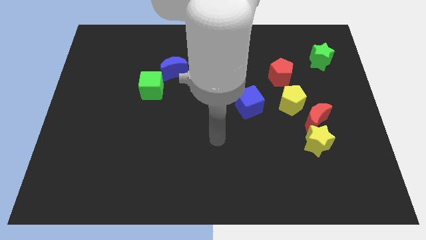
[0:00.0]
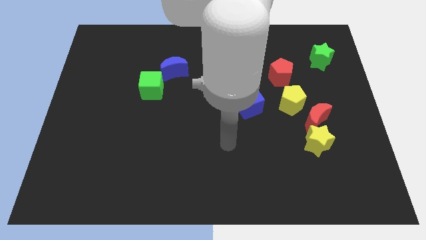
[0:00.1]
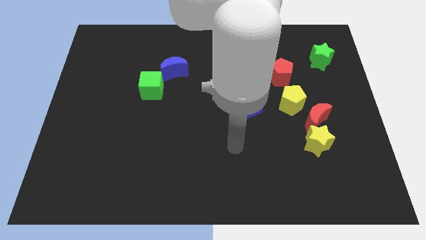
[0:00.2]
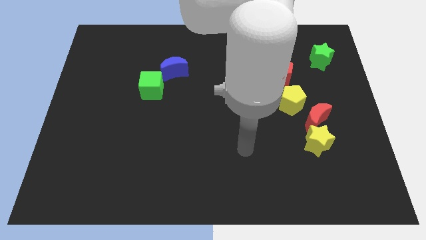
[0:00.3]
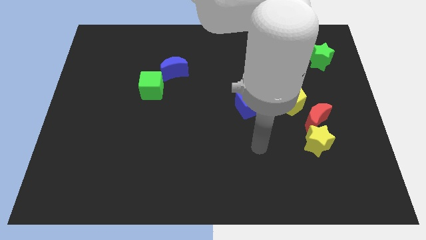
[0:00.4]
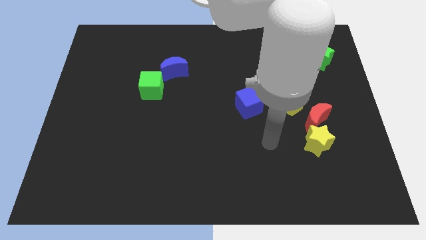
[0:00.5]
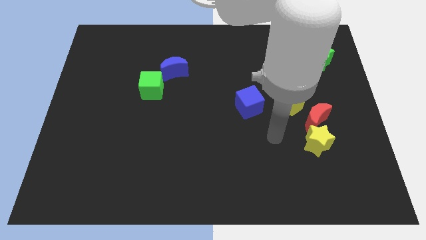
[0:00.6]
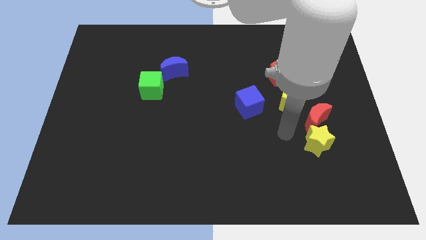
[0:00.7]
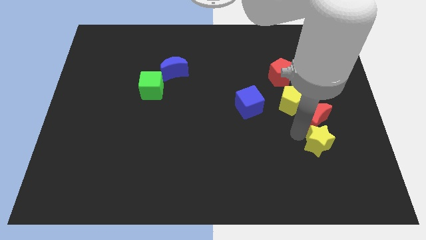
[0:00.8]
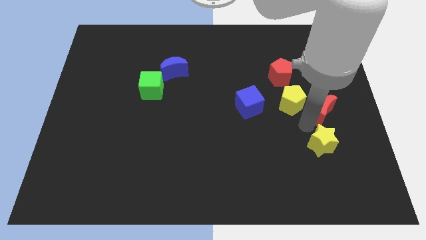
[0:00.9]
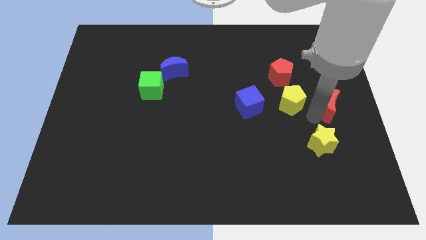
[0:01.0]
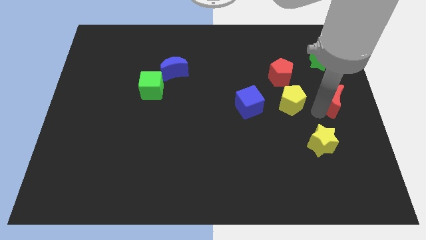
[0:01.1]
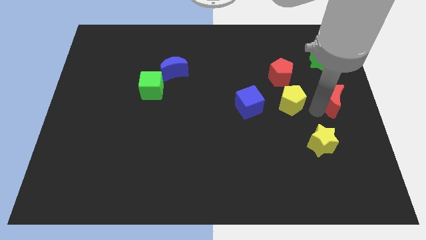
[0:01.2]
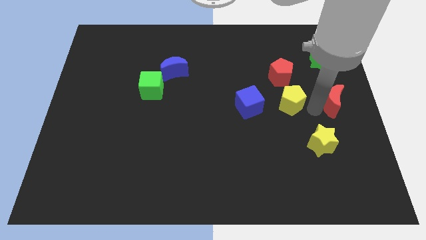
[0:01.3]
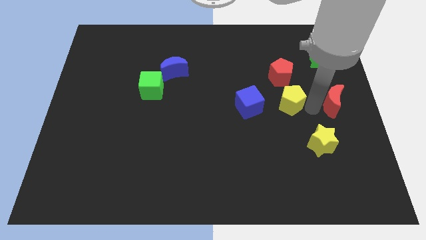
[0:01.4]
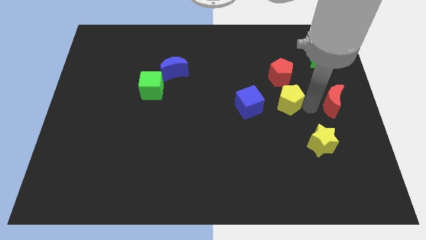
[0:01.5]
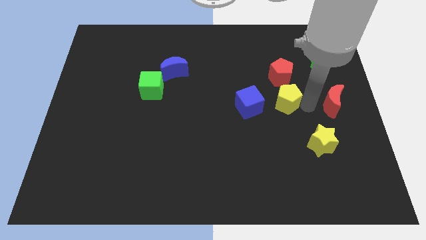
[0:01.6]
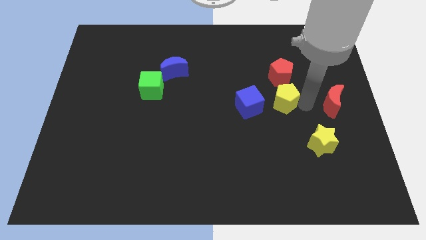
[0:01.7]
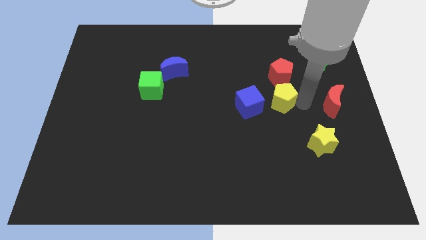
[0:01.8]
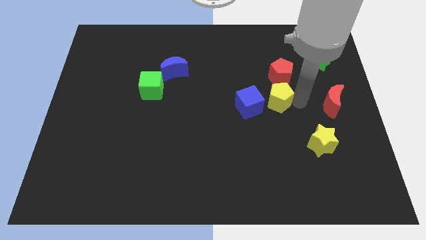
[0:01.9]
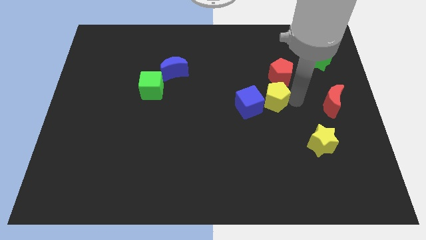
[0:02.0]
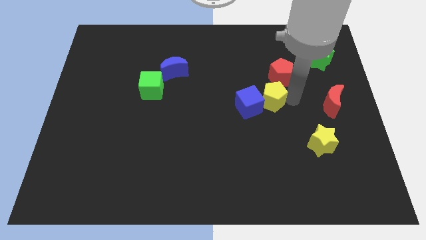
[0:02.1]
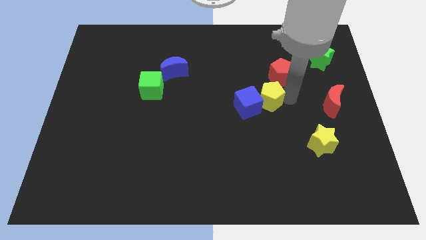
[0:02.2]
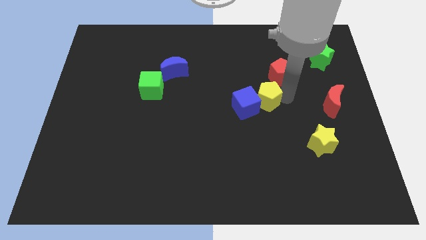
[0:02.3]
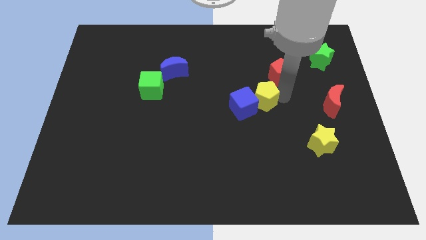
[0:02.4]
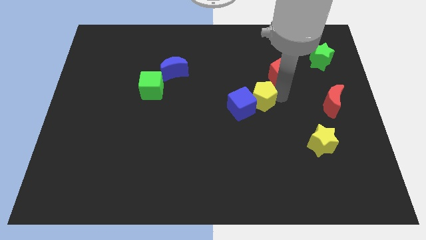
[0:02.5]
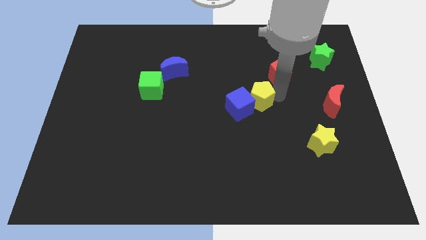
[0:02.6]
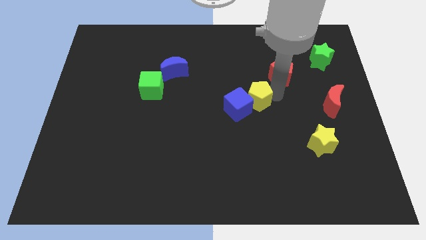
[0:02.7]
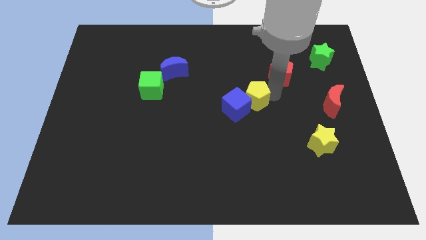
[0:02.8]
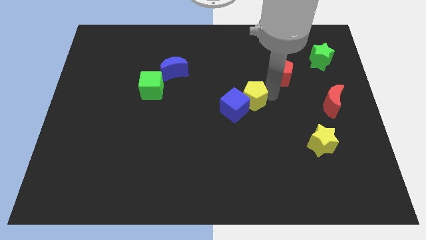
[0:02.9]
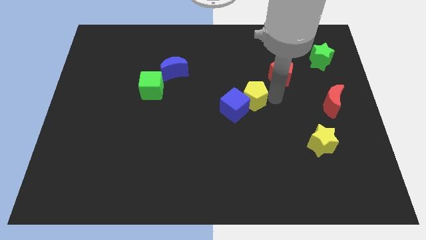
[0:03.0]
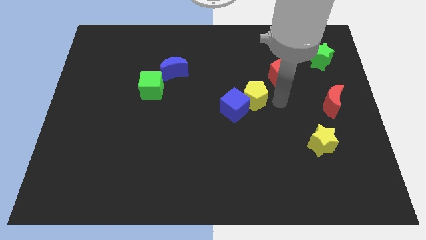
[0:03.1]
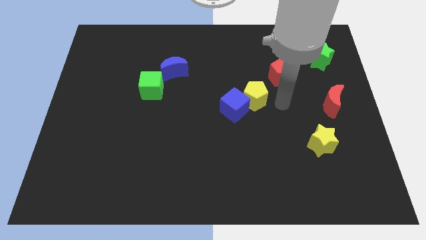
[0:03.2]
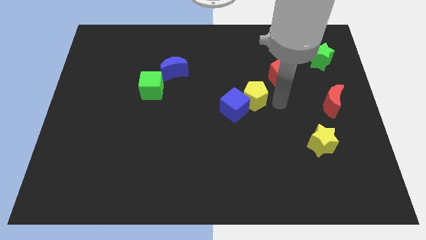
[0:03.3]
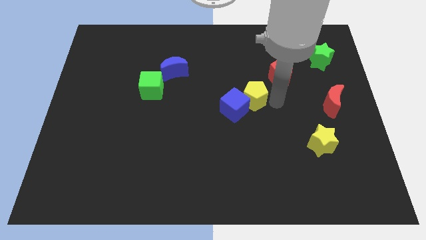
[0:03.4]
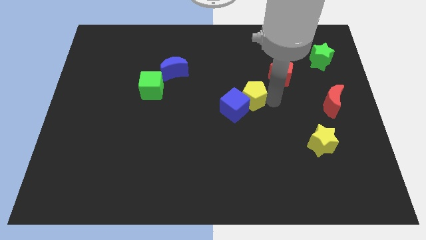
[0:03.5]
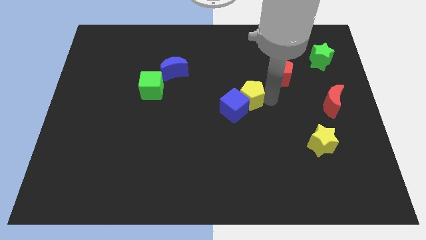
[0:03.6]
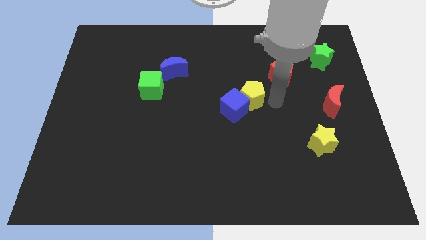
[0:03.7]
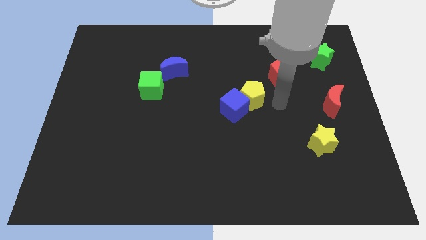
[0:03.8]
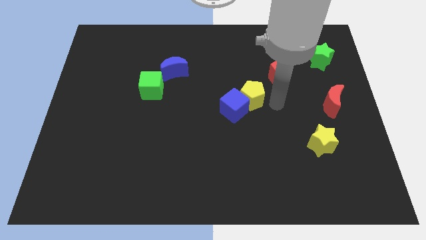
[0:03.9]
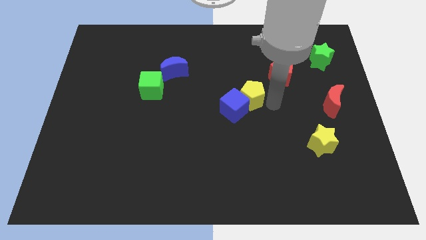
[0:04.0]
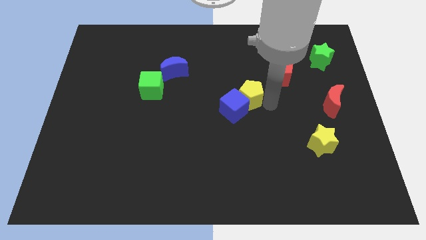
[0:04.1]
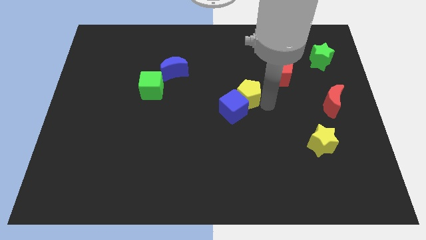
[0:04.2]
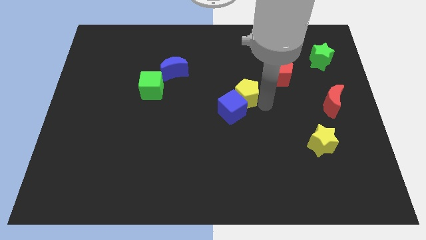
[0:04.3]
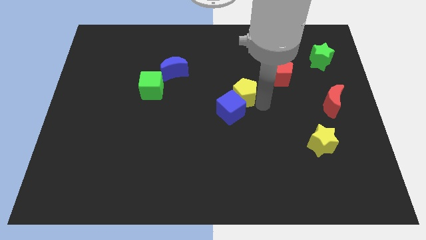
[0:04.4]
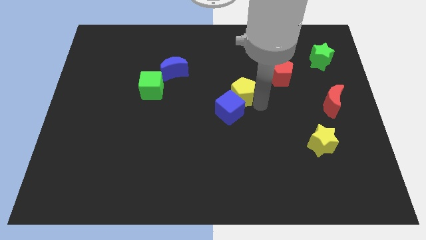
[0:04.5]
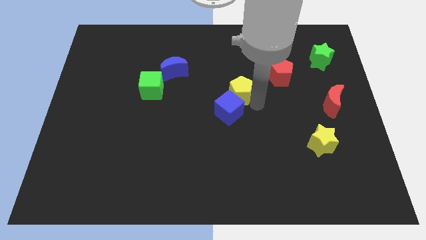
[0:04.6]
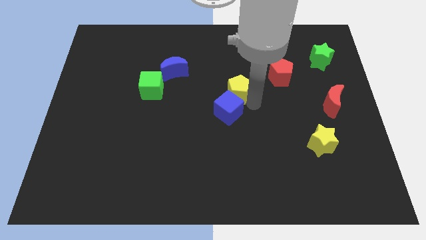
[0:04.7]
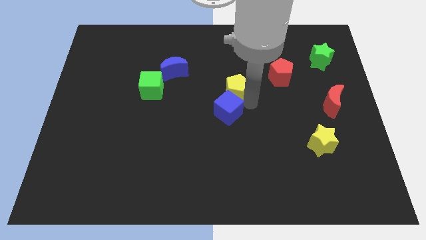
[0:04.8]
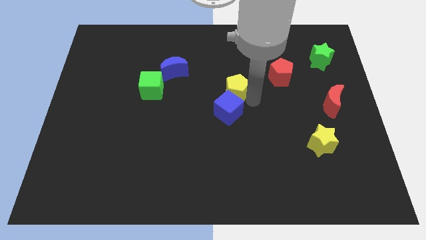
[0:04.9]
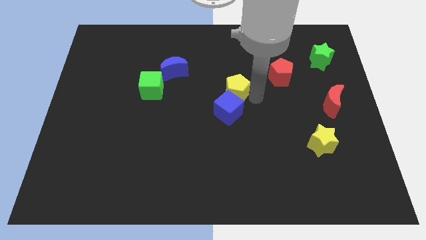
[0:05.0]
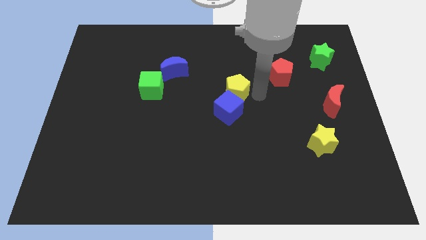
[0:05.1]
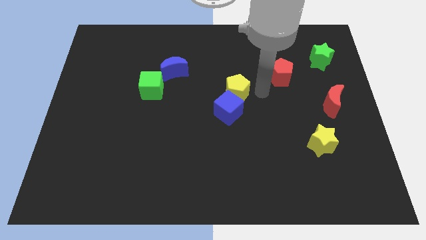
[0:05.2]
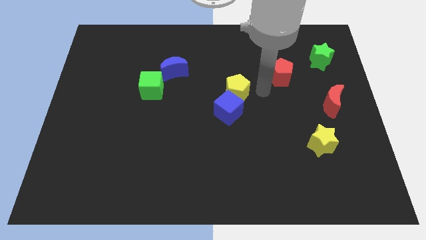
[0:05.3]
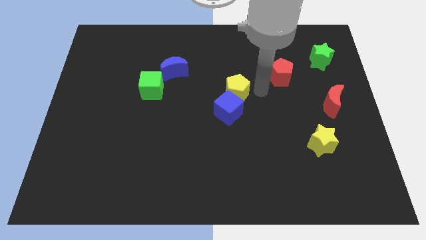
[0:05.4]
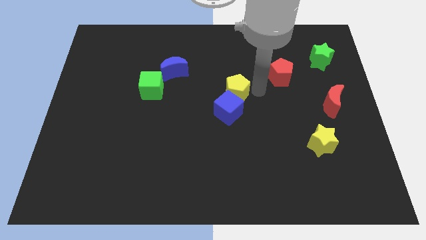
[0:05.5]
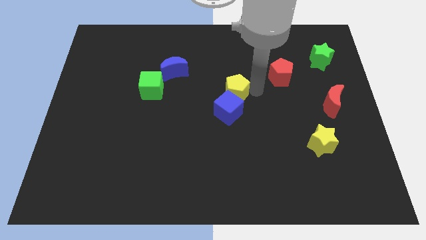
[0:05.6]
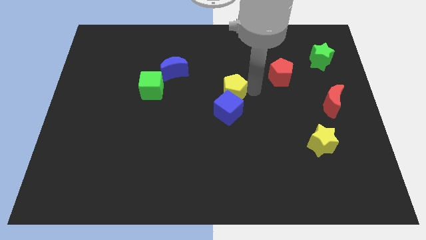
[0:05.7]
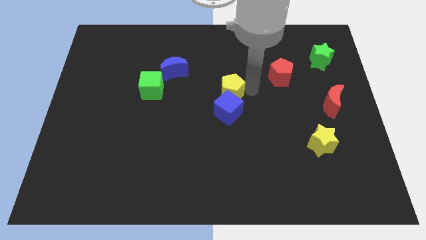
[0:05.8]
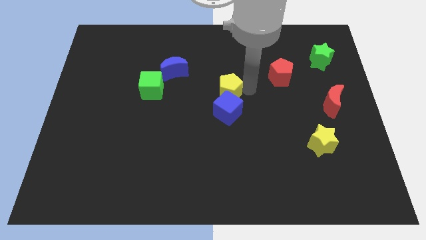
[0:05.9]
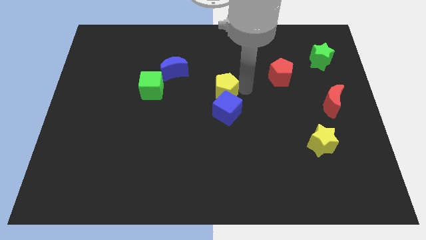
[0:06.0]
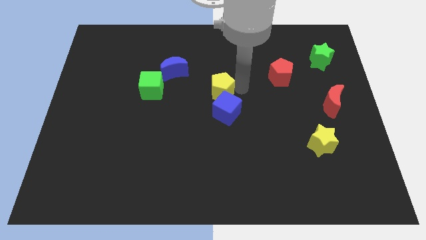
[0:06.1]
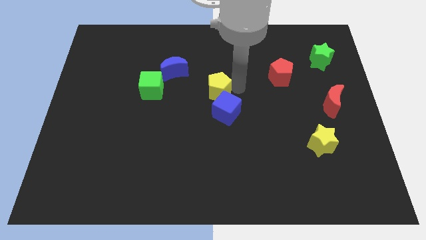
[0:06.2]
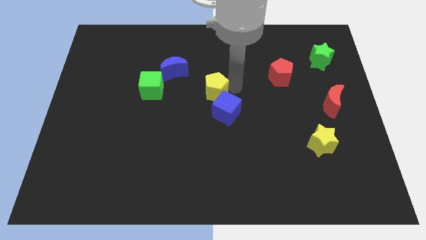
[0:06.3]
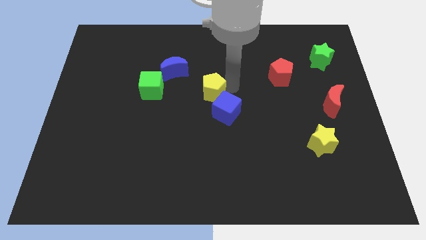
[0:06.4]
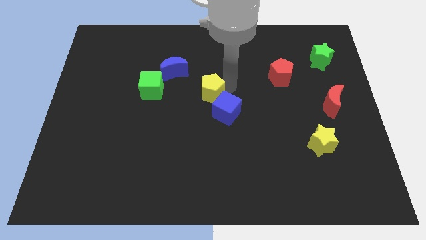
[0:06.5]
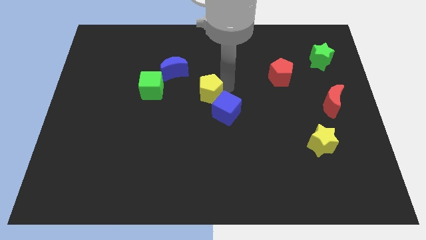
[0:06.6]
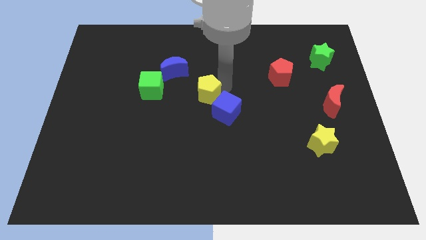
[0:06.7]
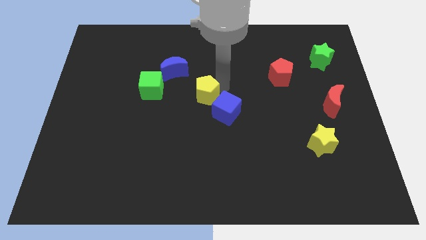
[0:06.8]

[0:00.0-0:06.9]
slide the yellow pentagon to the left

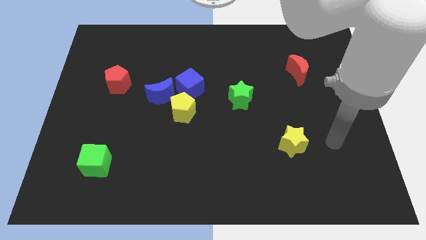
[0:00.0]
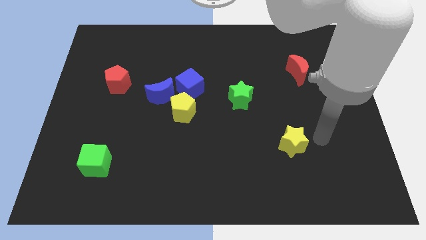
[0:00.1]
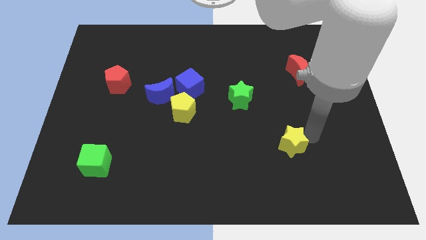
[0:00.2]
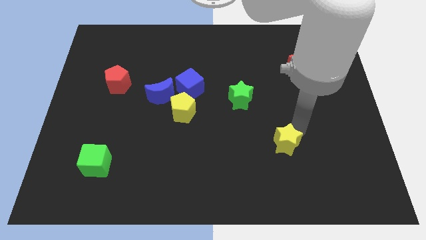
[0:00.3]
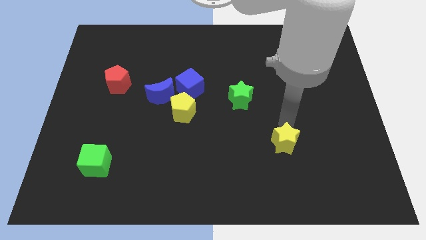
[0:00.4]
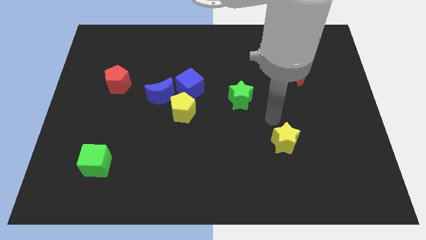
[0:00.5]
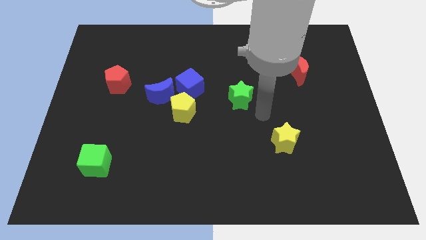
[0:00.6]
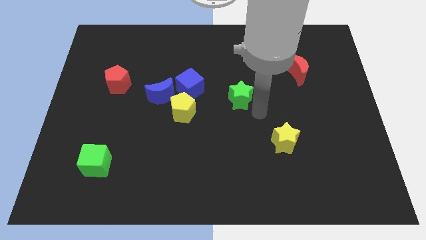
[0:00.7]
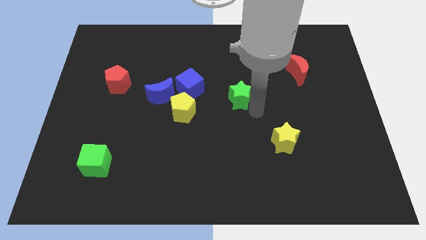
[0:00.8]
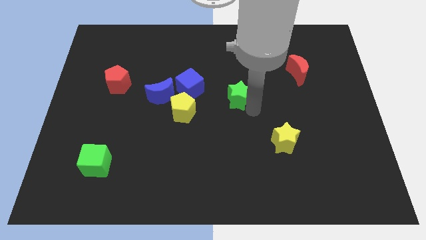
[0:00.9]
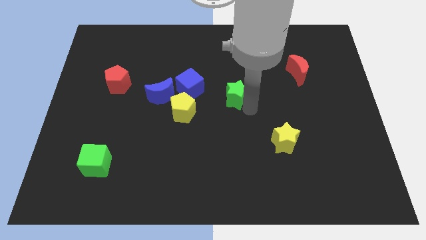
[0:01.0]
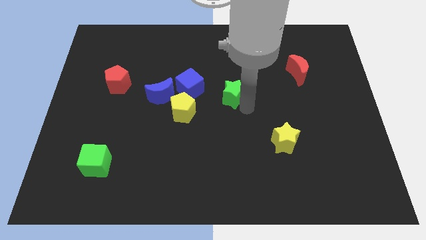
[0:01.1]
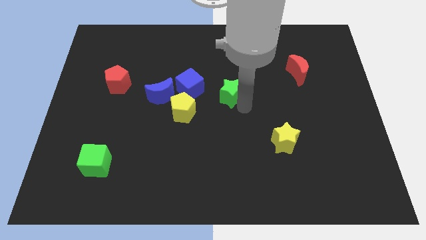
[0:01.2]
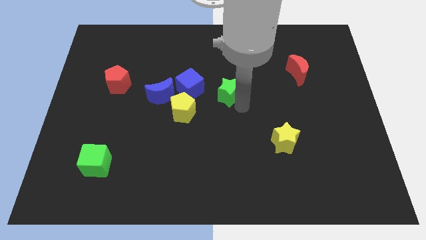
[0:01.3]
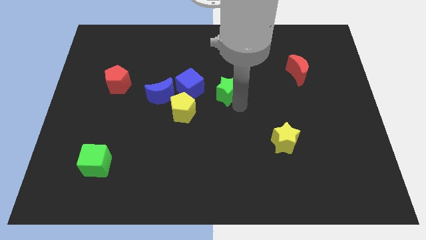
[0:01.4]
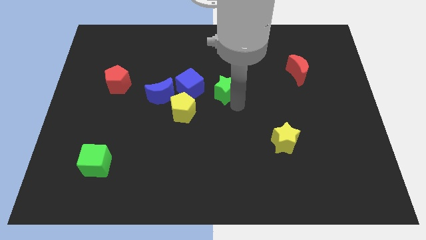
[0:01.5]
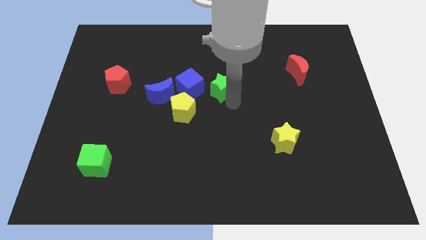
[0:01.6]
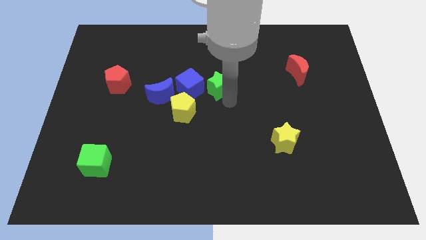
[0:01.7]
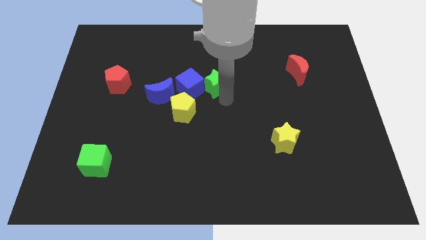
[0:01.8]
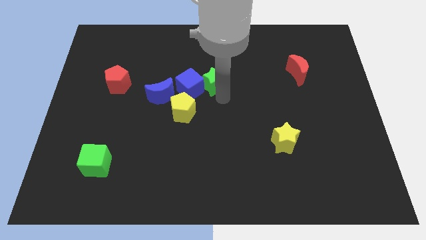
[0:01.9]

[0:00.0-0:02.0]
push the green star a little diagonally up and left
